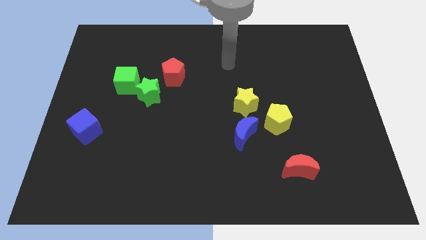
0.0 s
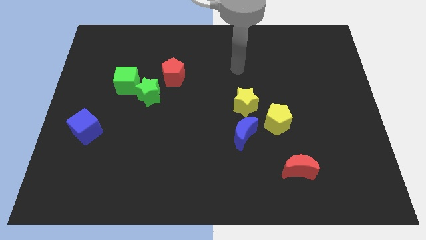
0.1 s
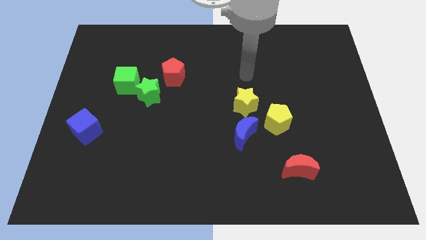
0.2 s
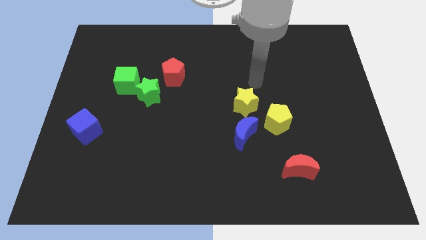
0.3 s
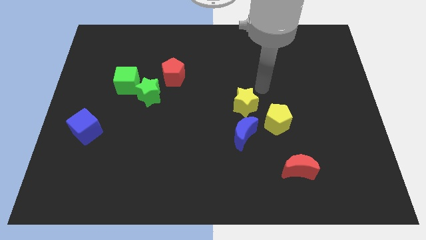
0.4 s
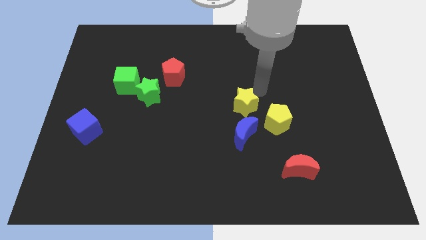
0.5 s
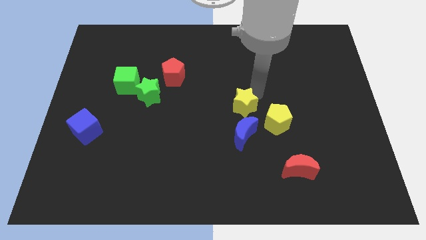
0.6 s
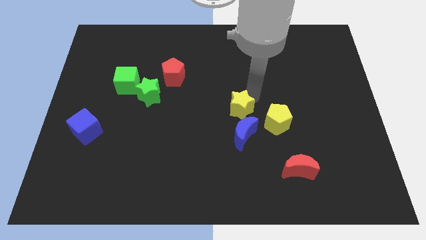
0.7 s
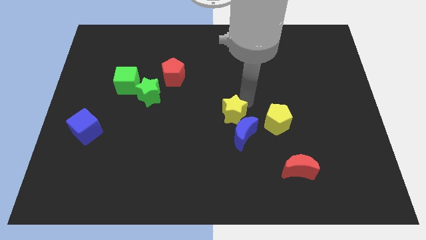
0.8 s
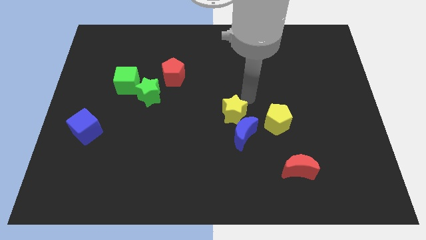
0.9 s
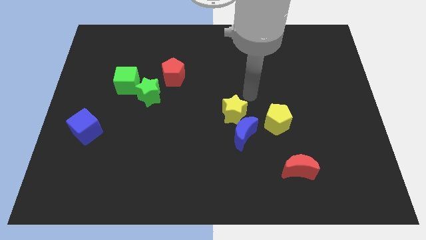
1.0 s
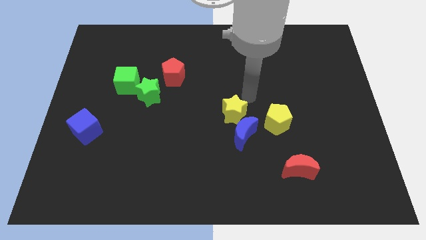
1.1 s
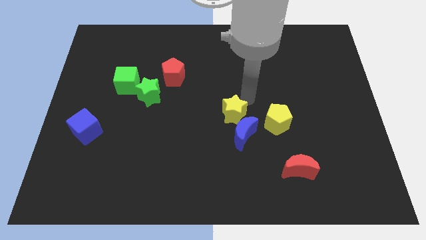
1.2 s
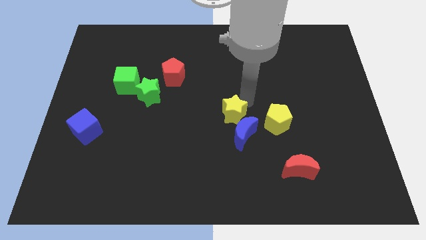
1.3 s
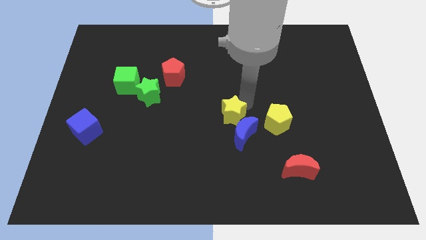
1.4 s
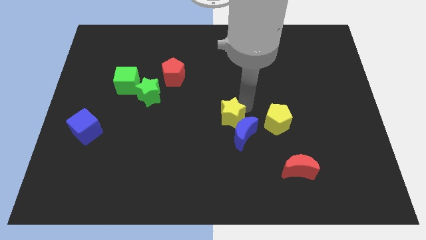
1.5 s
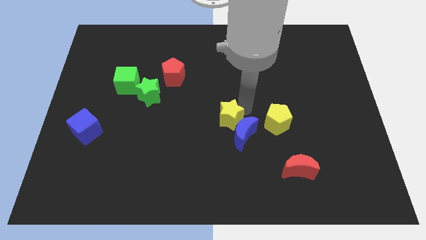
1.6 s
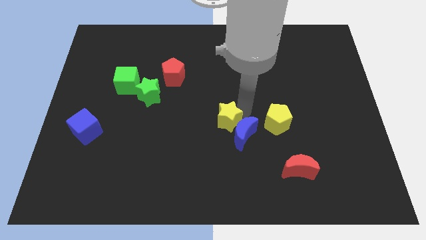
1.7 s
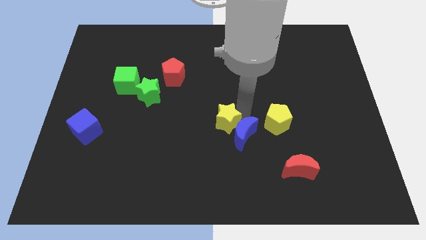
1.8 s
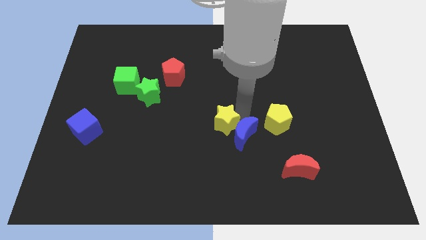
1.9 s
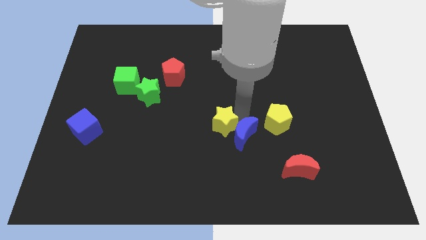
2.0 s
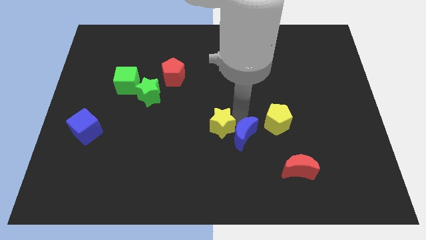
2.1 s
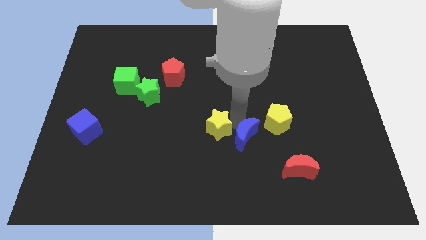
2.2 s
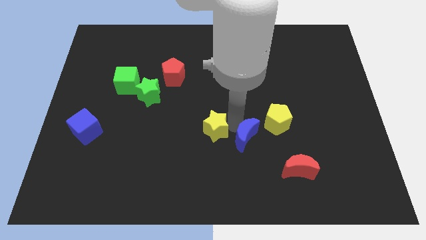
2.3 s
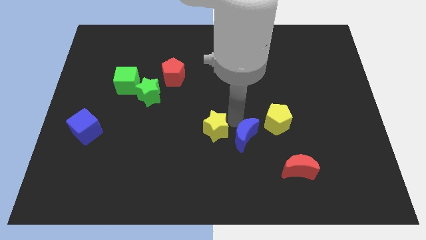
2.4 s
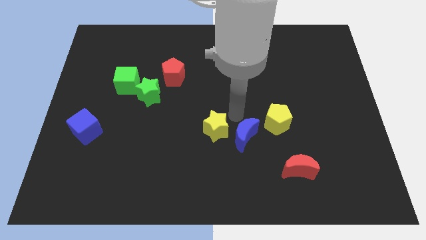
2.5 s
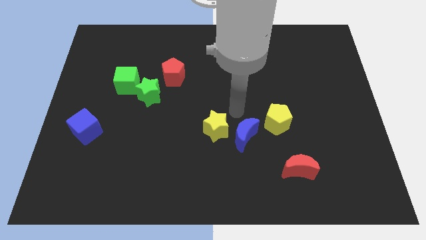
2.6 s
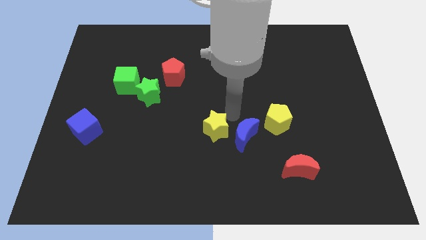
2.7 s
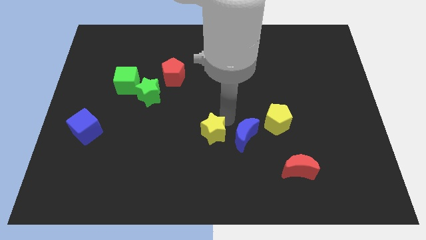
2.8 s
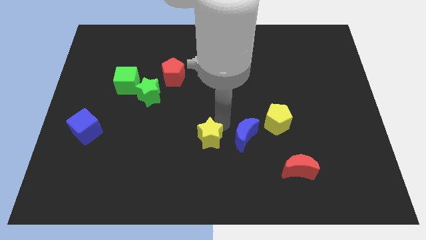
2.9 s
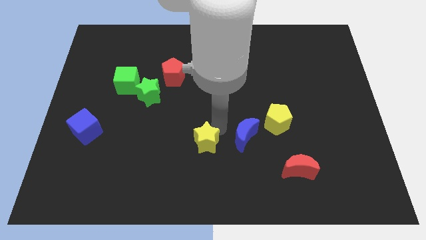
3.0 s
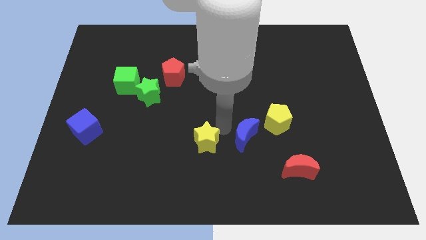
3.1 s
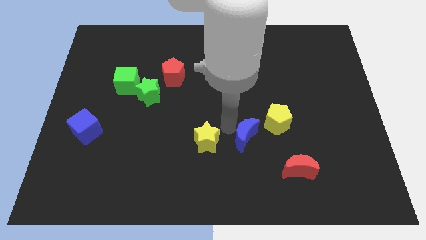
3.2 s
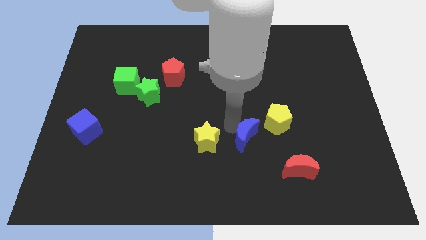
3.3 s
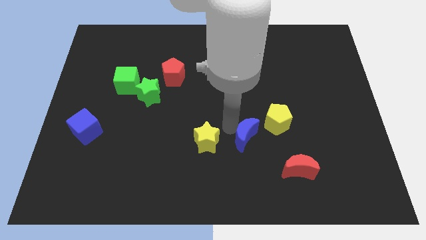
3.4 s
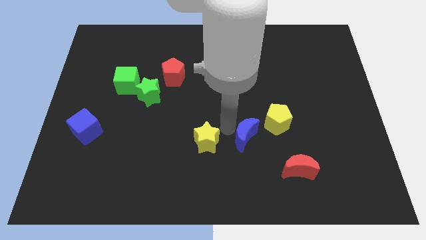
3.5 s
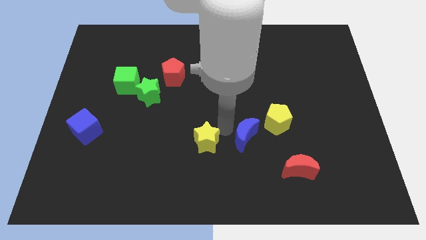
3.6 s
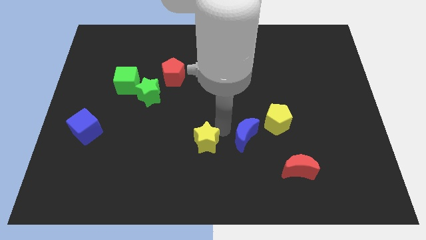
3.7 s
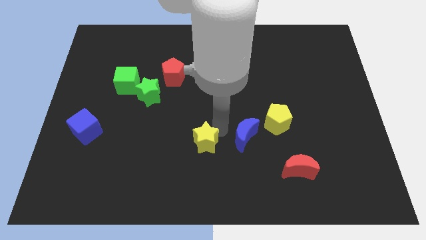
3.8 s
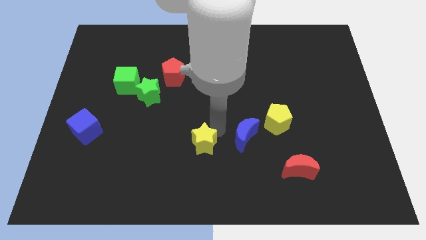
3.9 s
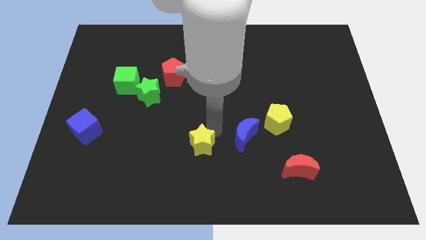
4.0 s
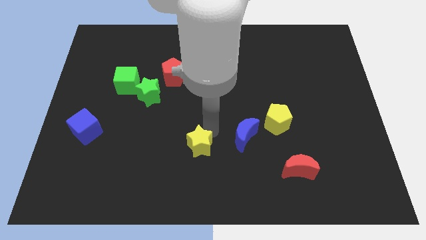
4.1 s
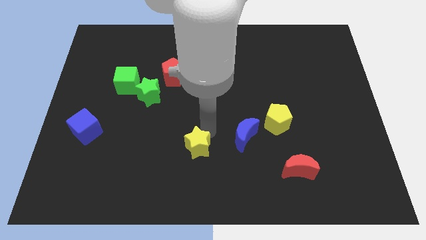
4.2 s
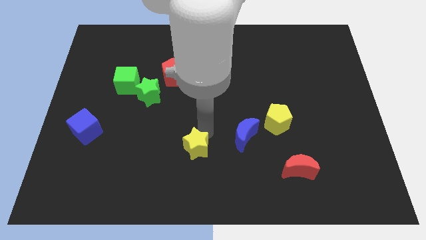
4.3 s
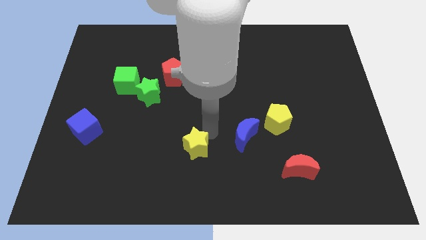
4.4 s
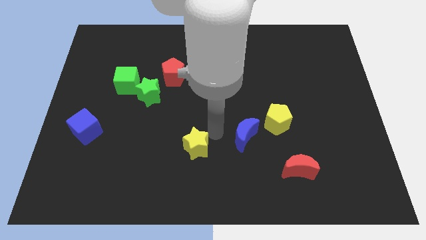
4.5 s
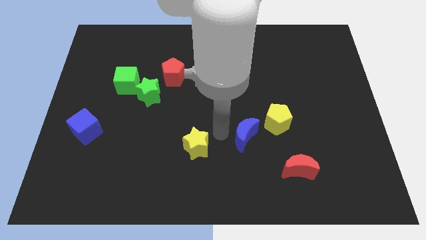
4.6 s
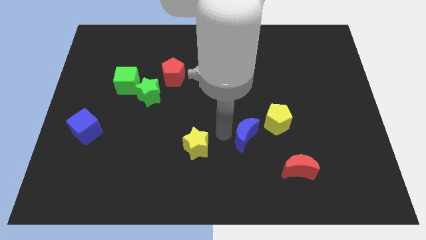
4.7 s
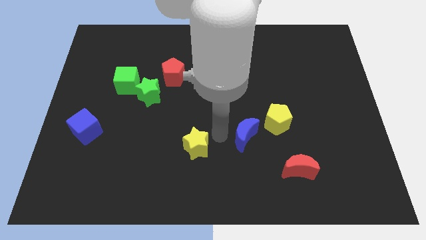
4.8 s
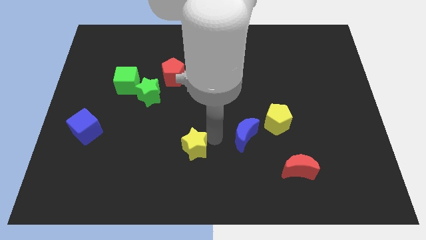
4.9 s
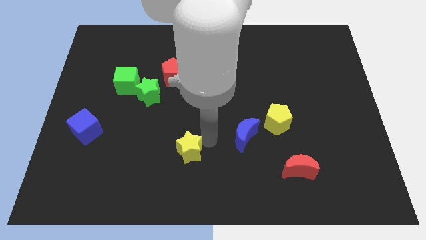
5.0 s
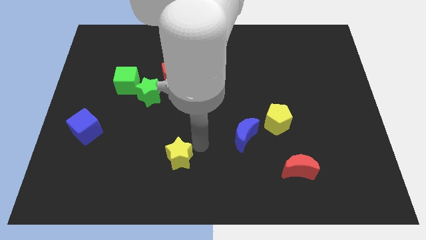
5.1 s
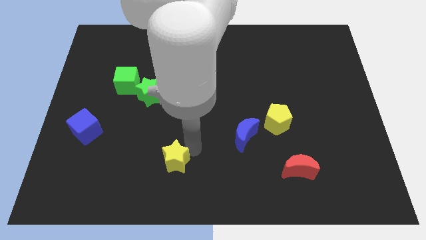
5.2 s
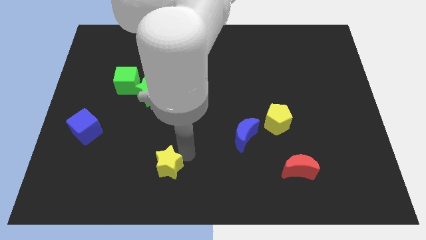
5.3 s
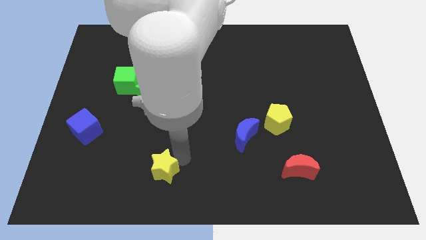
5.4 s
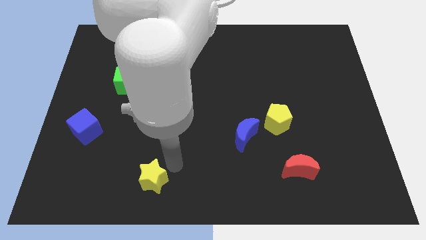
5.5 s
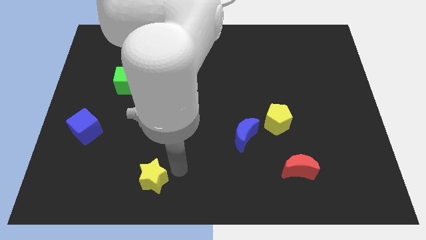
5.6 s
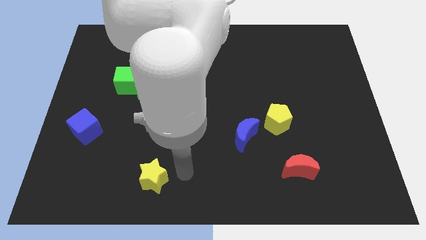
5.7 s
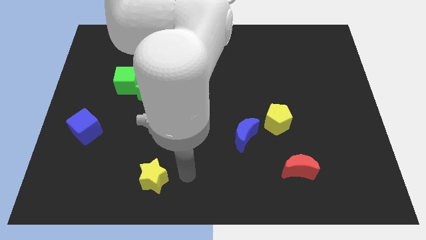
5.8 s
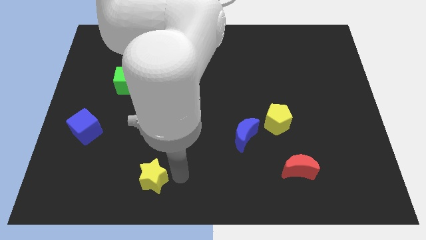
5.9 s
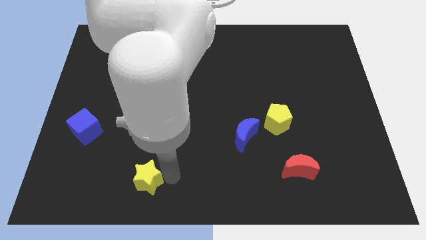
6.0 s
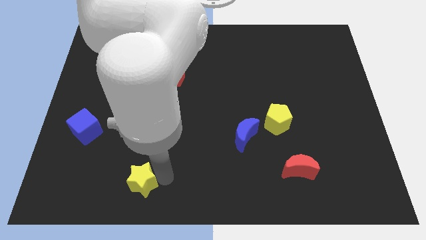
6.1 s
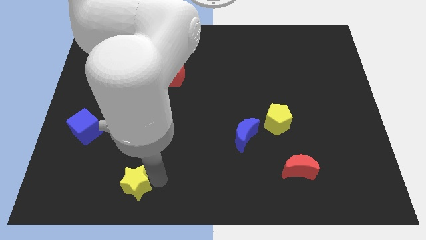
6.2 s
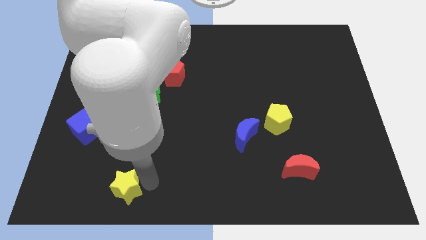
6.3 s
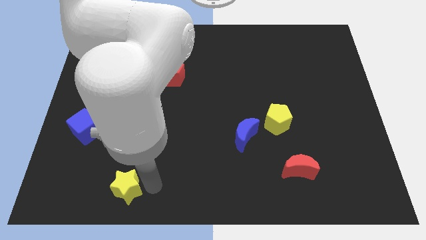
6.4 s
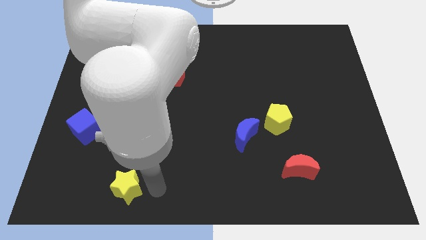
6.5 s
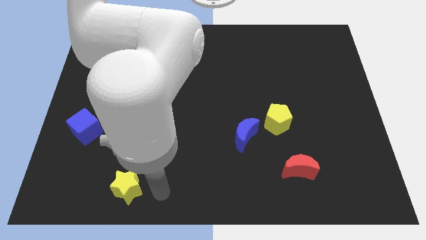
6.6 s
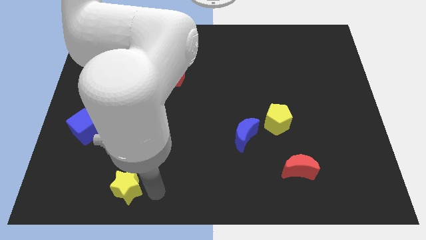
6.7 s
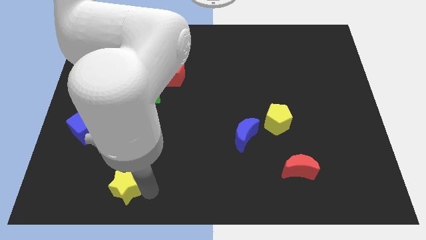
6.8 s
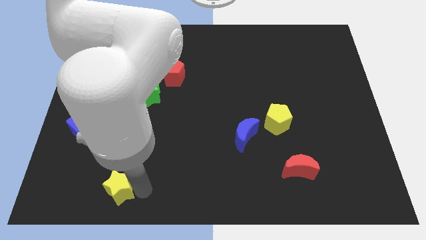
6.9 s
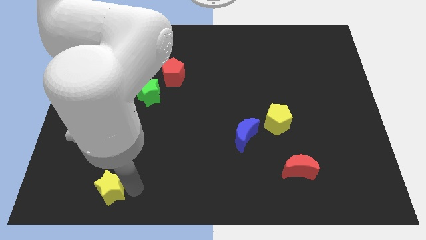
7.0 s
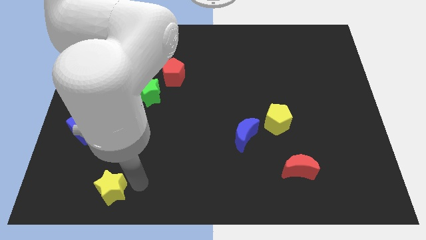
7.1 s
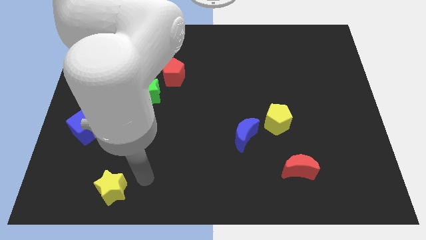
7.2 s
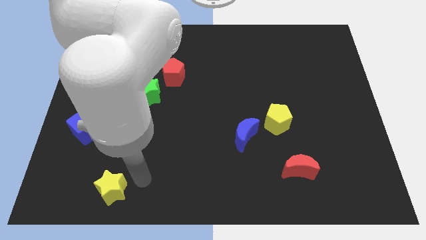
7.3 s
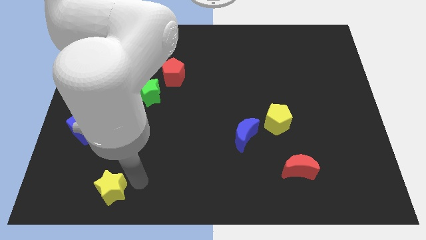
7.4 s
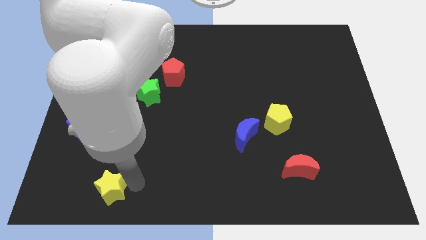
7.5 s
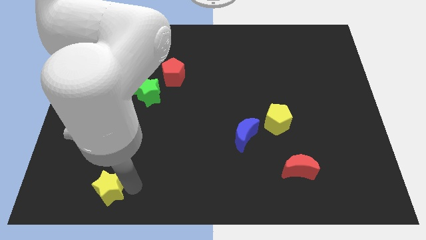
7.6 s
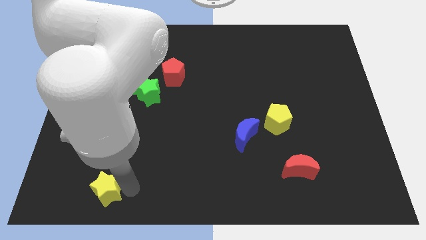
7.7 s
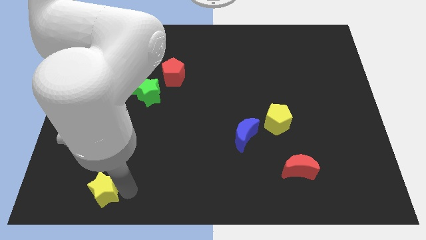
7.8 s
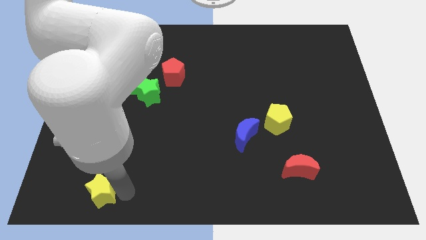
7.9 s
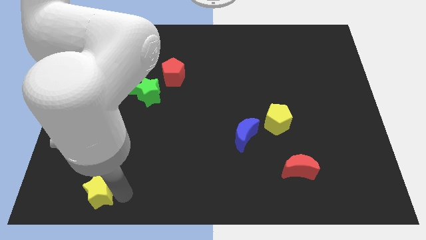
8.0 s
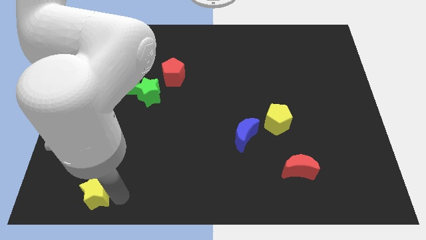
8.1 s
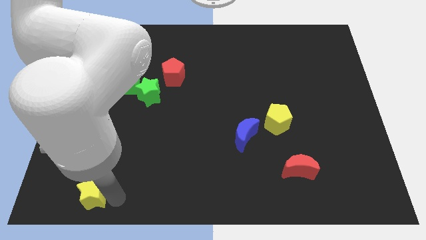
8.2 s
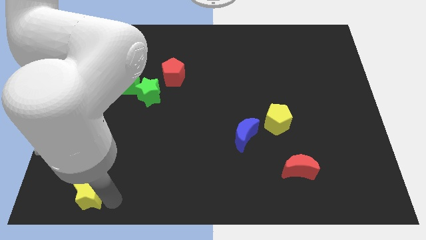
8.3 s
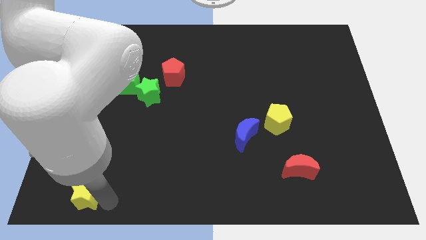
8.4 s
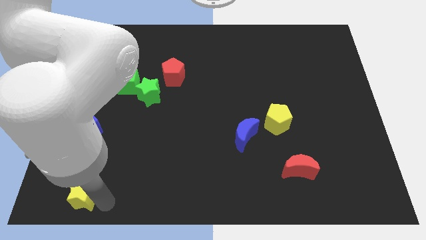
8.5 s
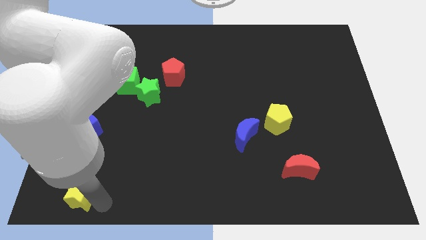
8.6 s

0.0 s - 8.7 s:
push the yellow star to the bottom left
